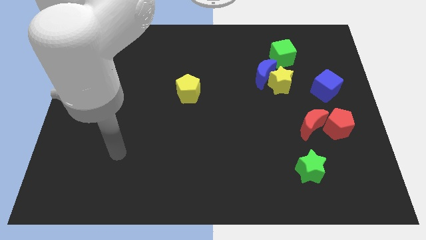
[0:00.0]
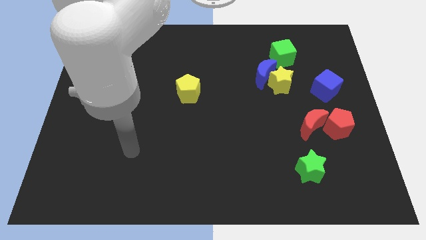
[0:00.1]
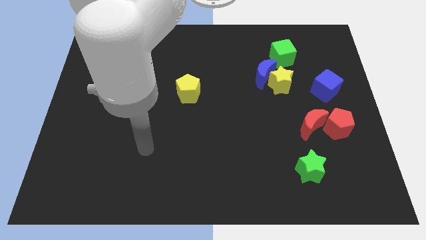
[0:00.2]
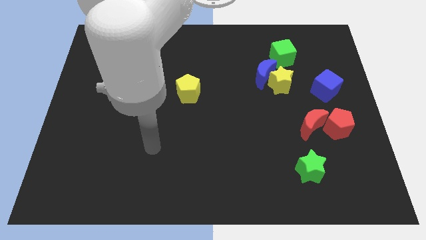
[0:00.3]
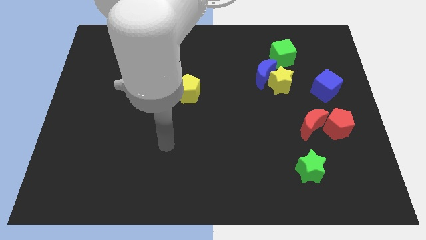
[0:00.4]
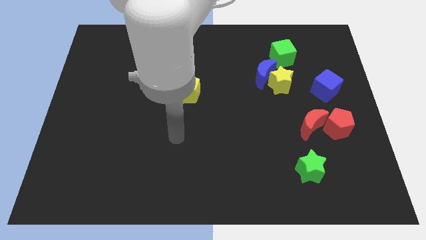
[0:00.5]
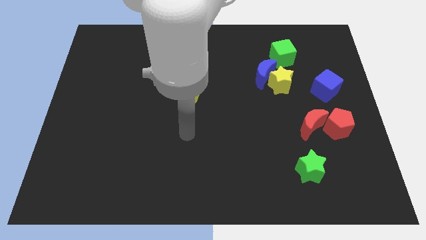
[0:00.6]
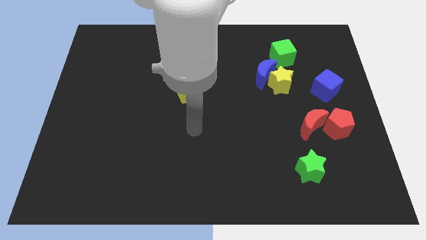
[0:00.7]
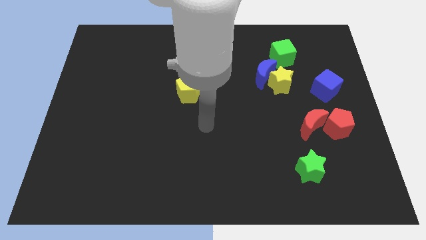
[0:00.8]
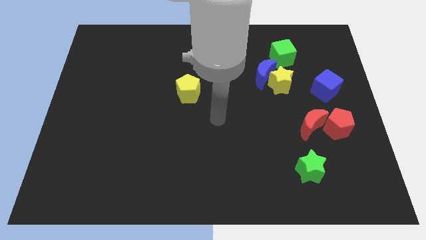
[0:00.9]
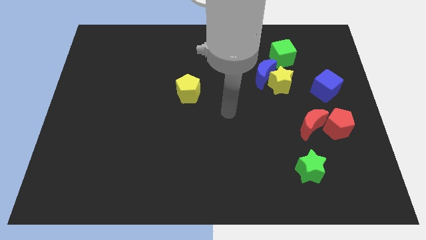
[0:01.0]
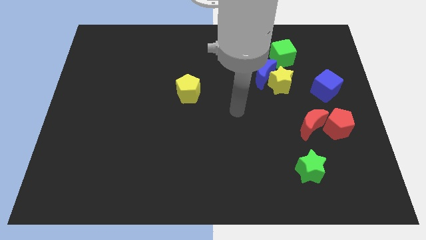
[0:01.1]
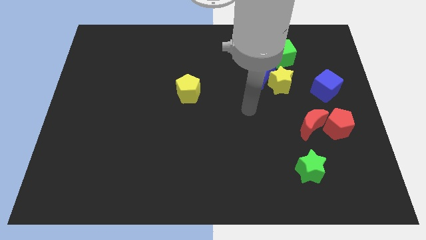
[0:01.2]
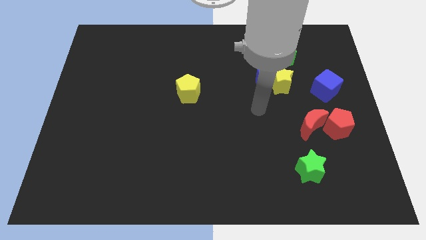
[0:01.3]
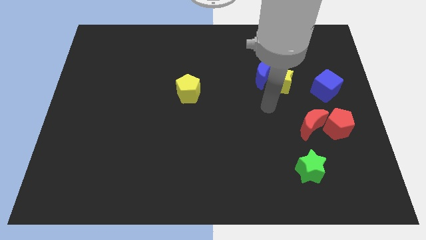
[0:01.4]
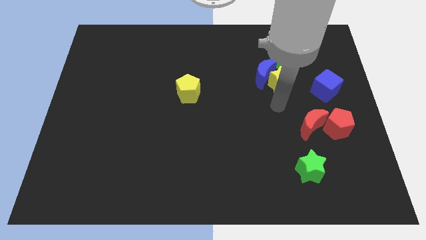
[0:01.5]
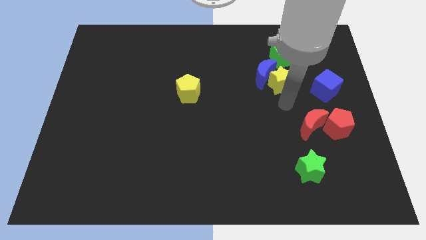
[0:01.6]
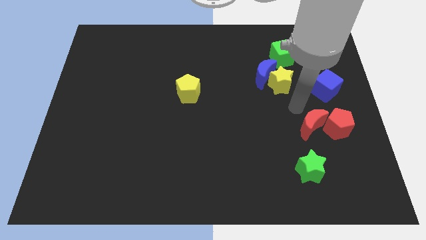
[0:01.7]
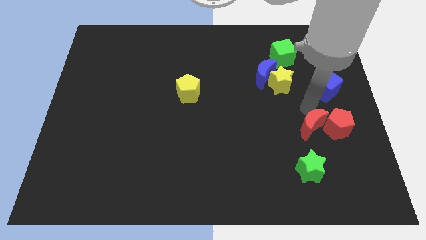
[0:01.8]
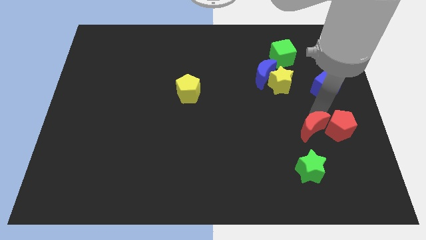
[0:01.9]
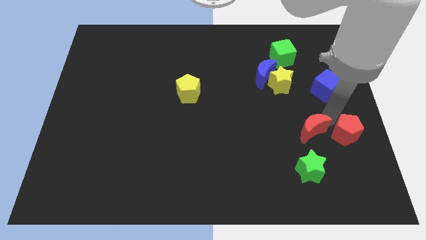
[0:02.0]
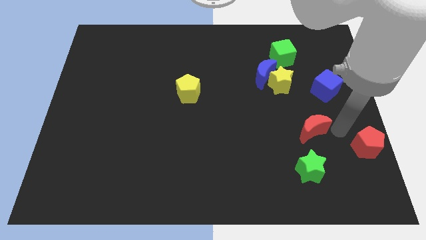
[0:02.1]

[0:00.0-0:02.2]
pull the red moon apart from the red pentagon

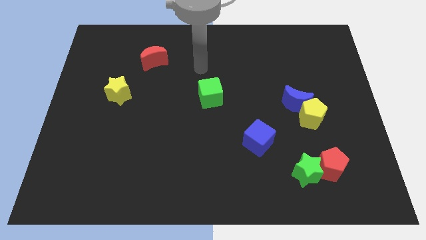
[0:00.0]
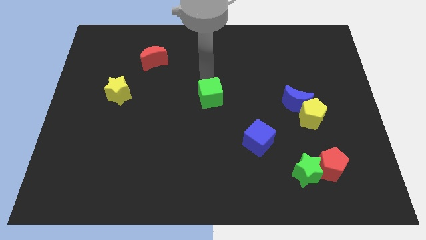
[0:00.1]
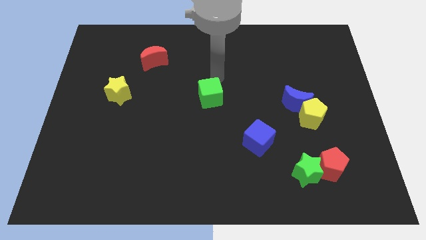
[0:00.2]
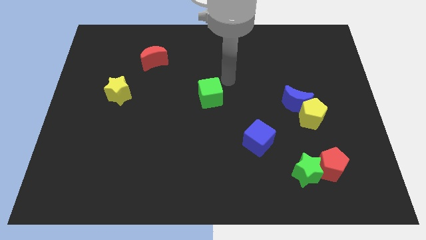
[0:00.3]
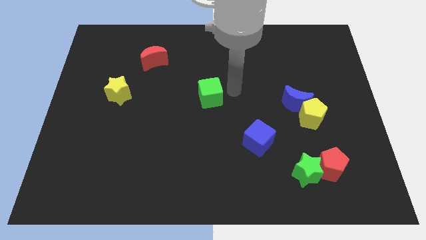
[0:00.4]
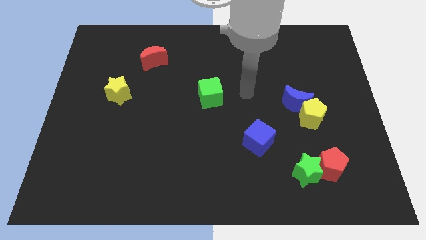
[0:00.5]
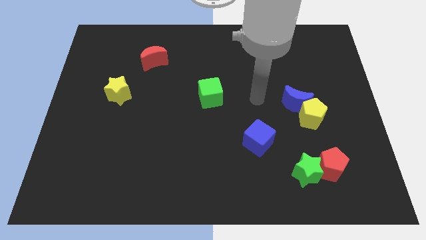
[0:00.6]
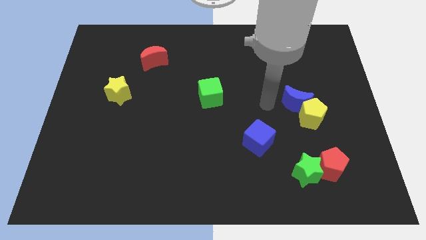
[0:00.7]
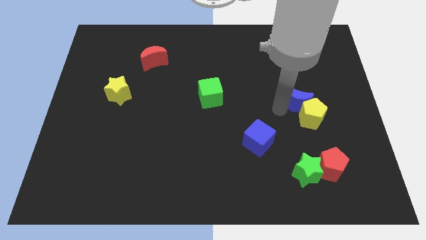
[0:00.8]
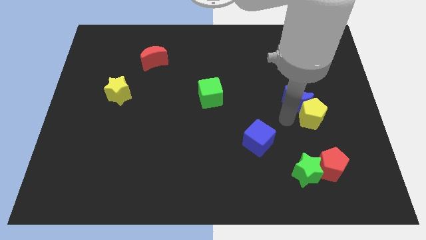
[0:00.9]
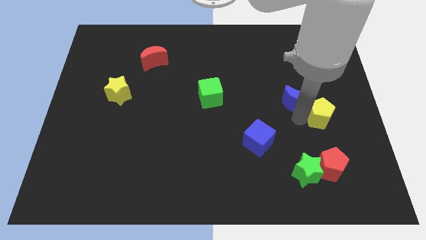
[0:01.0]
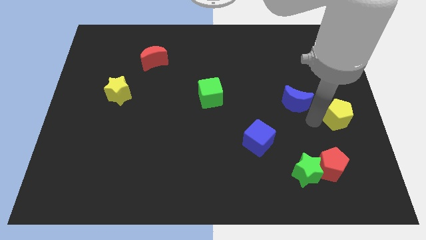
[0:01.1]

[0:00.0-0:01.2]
pull the blue moon apart from the yellow pentagon

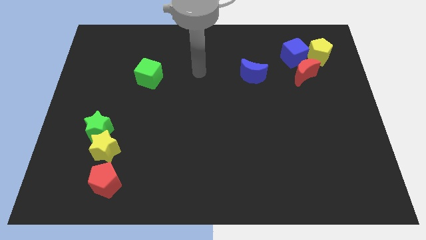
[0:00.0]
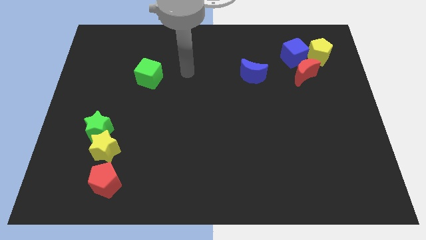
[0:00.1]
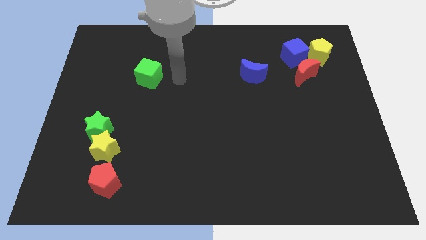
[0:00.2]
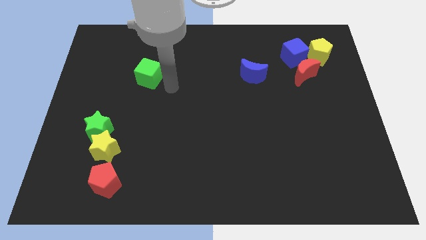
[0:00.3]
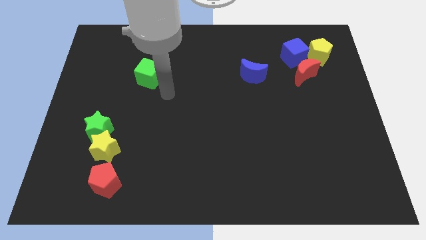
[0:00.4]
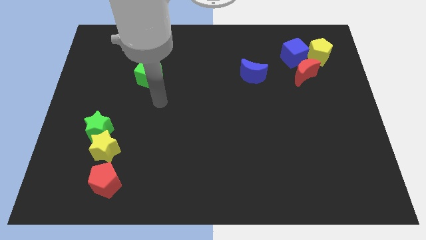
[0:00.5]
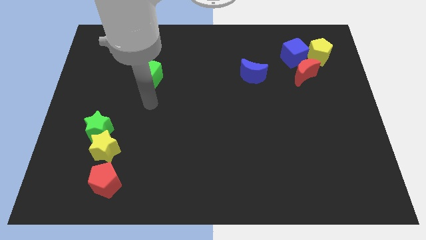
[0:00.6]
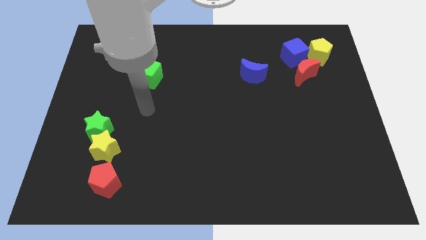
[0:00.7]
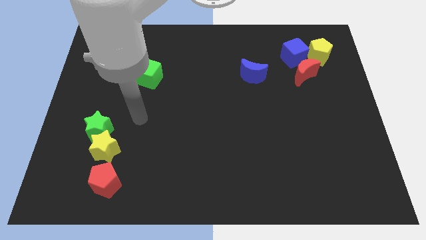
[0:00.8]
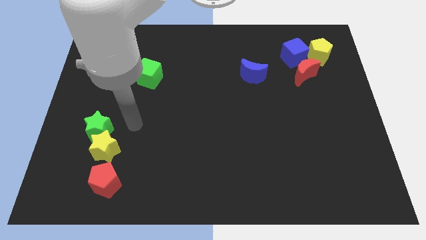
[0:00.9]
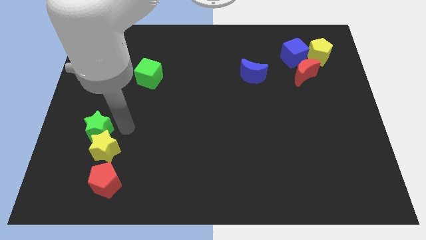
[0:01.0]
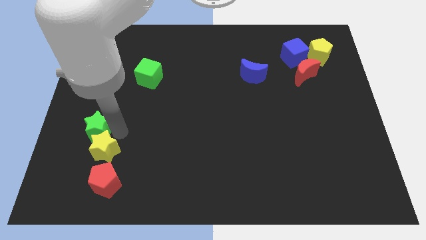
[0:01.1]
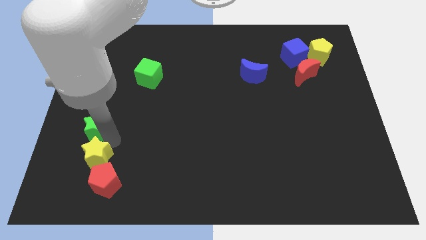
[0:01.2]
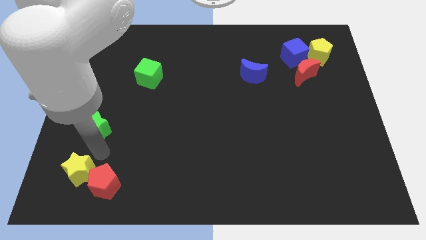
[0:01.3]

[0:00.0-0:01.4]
pull the green star apart from the yellow star

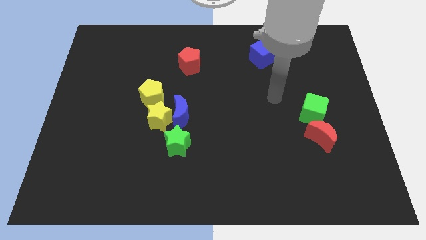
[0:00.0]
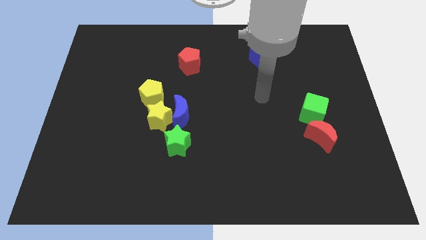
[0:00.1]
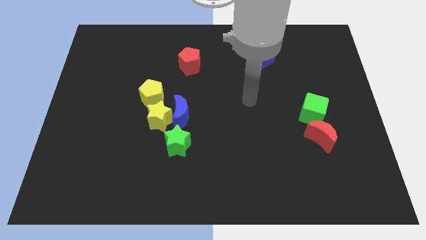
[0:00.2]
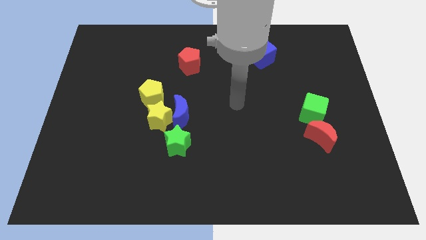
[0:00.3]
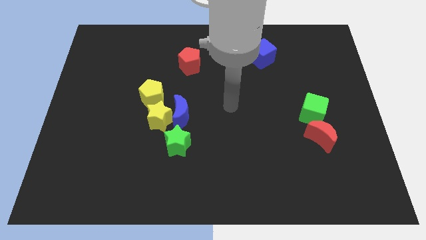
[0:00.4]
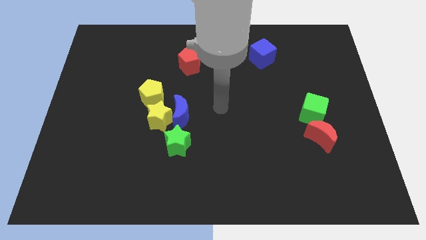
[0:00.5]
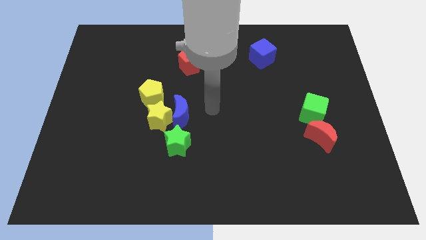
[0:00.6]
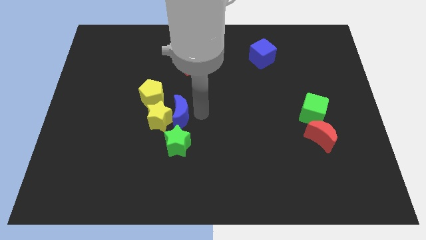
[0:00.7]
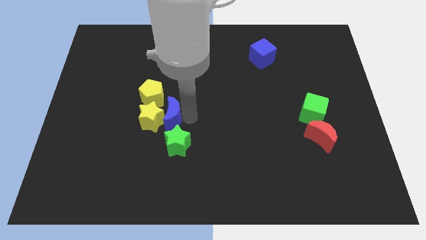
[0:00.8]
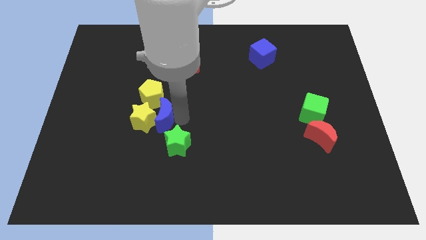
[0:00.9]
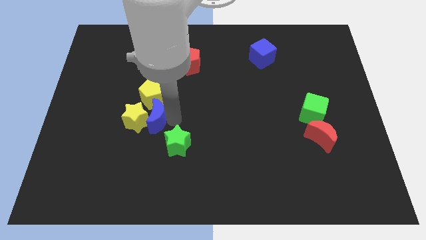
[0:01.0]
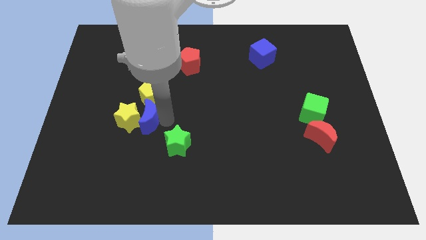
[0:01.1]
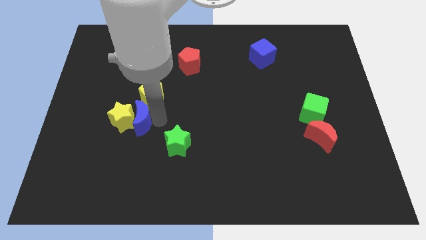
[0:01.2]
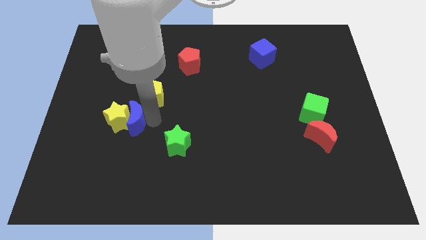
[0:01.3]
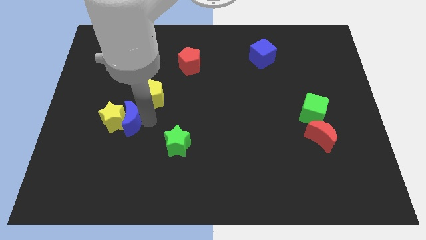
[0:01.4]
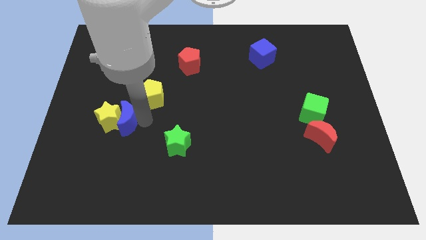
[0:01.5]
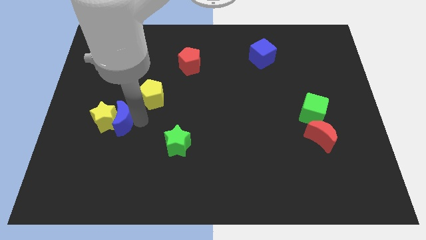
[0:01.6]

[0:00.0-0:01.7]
separate the yellow star from the blue moon, yellow pentagon, and green star

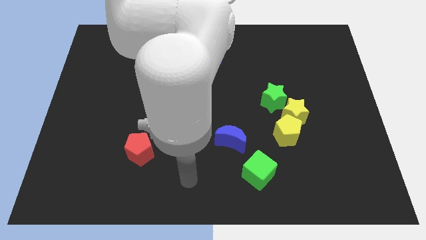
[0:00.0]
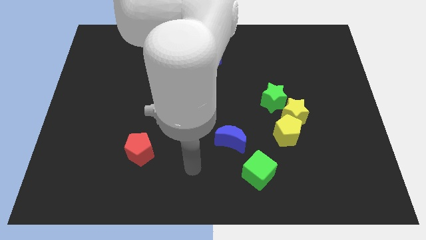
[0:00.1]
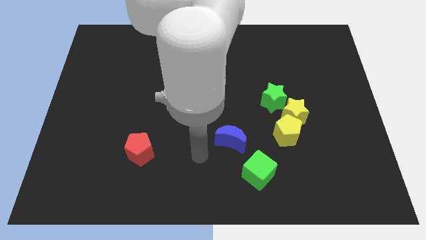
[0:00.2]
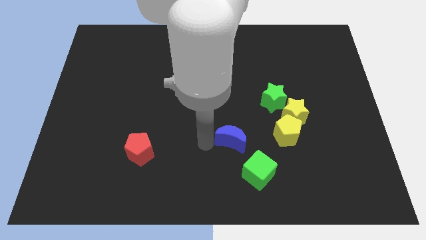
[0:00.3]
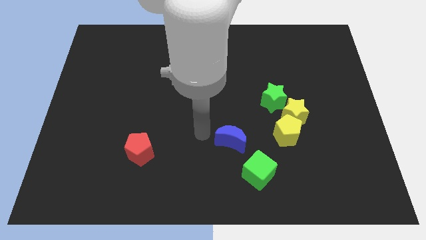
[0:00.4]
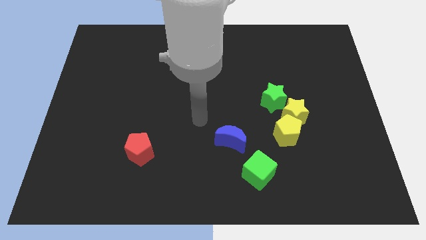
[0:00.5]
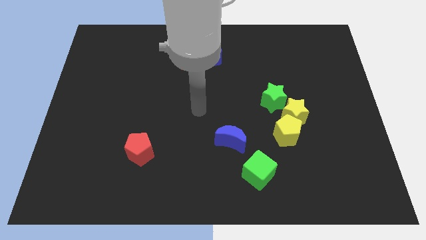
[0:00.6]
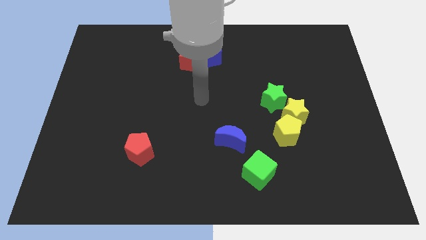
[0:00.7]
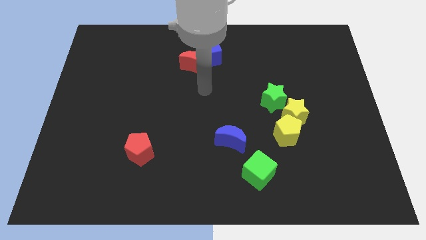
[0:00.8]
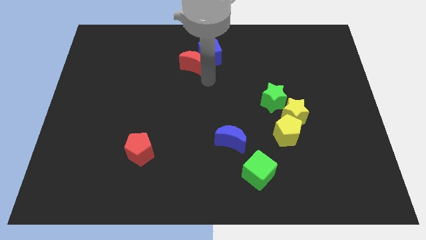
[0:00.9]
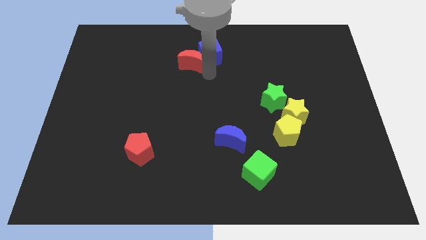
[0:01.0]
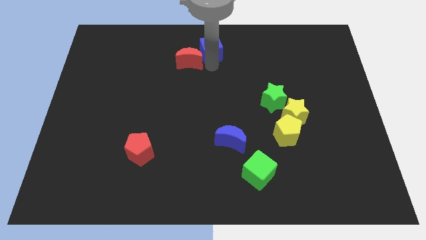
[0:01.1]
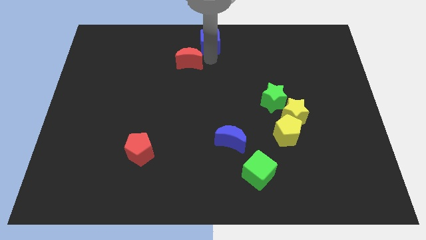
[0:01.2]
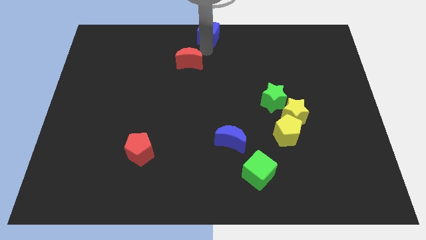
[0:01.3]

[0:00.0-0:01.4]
move the red moon away from the blue cube

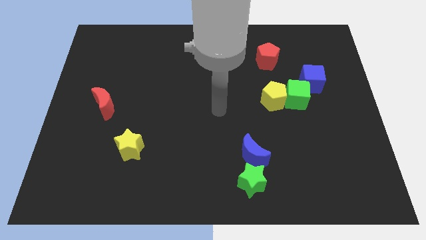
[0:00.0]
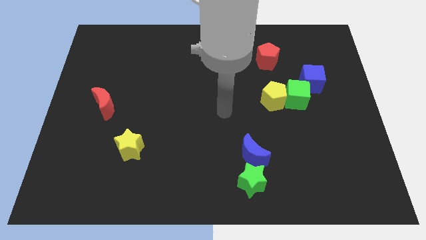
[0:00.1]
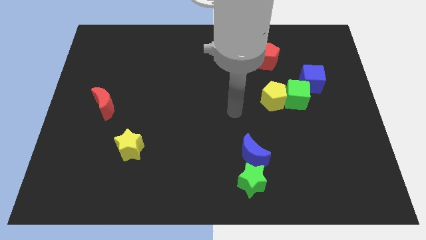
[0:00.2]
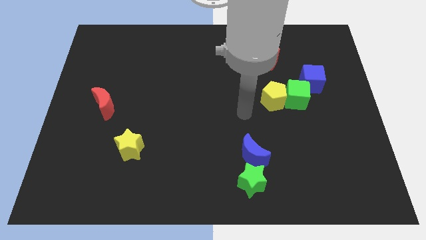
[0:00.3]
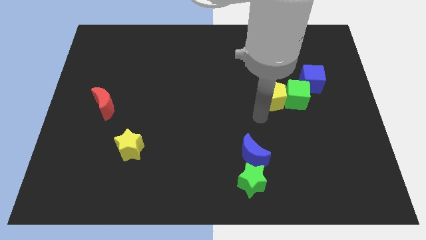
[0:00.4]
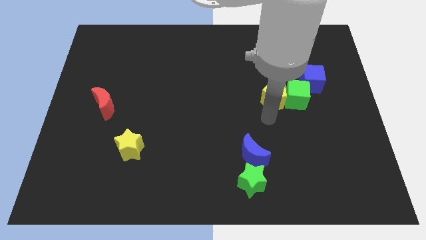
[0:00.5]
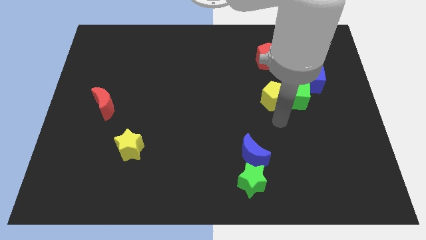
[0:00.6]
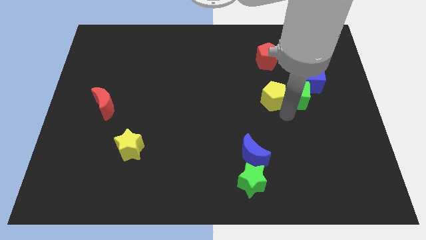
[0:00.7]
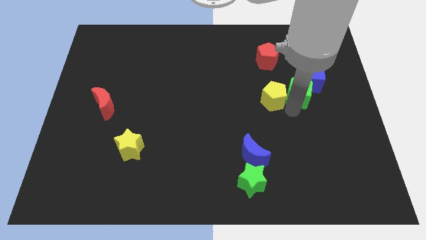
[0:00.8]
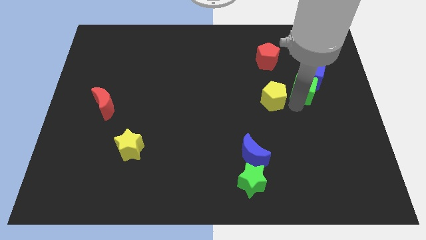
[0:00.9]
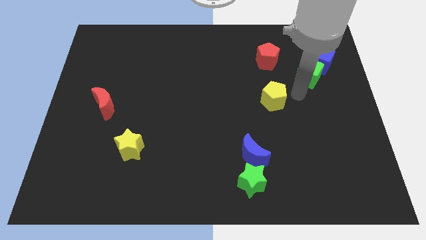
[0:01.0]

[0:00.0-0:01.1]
move the yellow pentagon away from the green cube

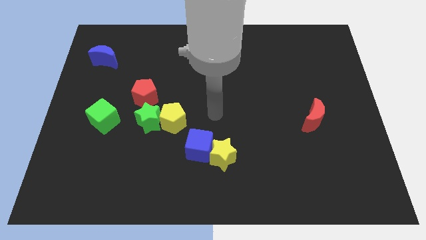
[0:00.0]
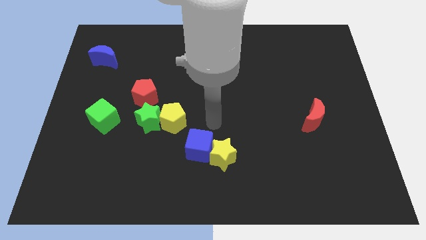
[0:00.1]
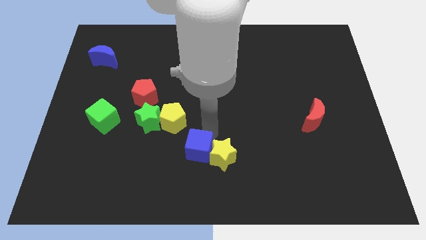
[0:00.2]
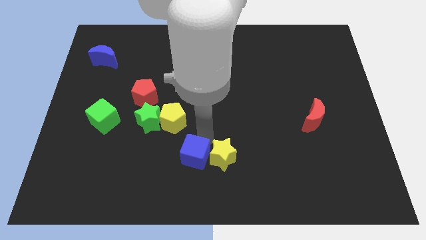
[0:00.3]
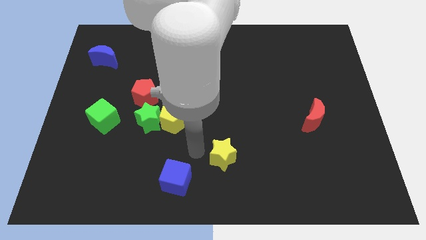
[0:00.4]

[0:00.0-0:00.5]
move the yellow star away from the blue cube
